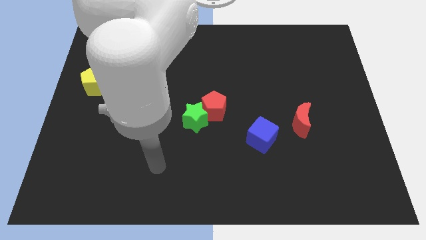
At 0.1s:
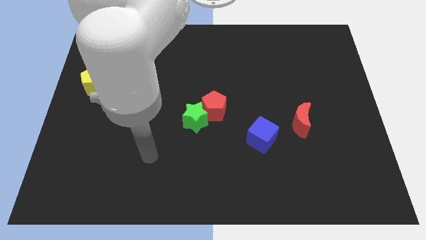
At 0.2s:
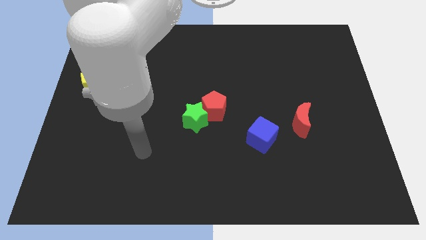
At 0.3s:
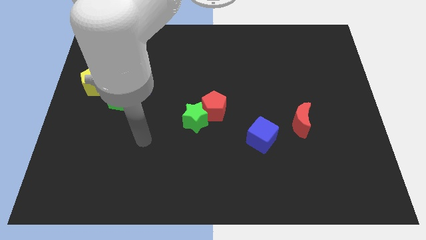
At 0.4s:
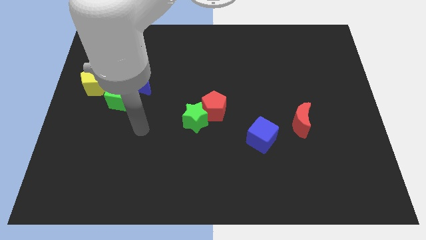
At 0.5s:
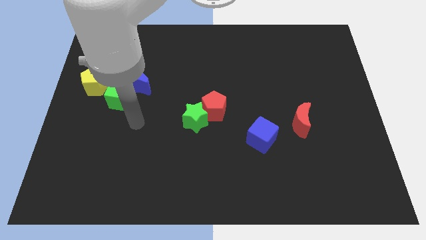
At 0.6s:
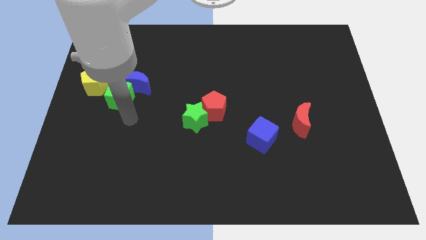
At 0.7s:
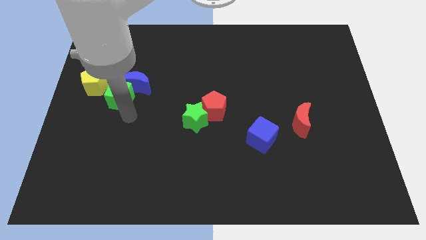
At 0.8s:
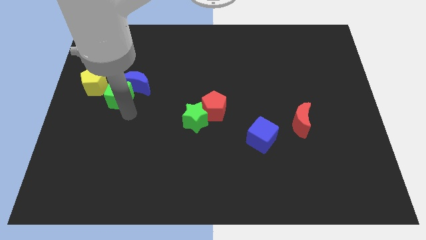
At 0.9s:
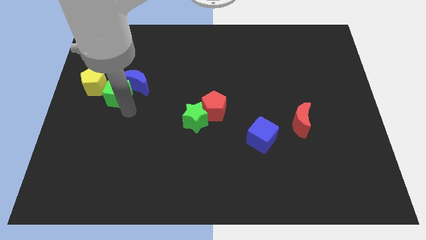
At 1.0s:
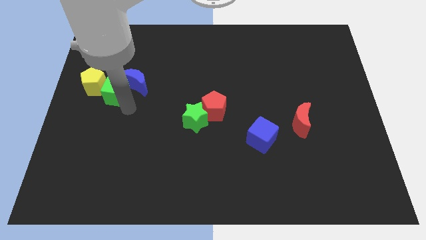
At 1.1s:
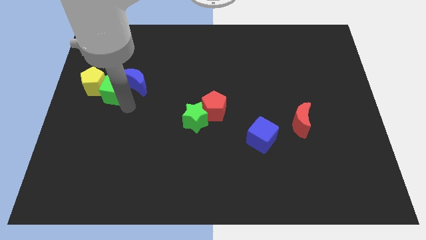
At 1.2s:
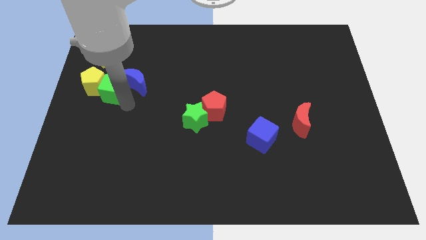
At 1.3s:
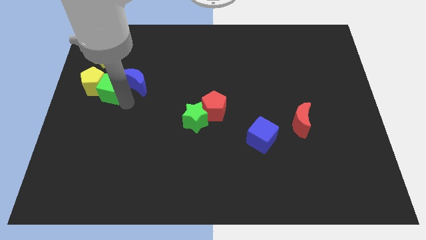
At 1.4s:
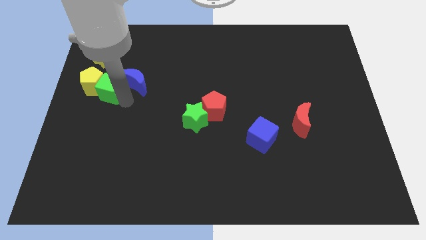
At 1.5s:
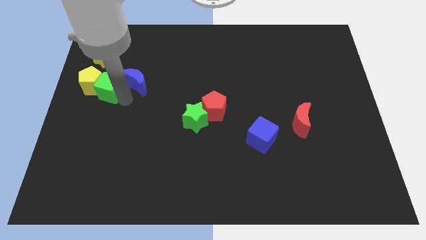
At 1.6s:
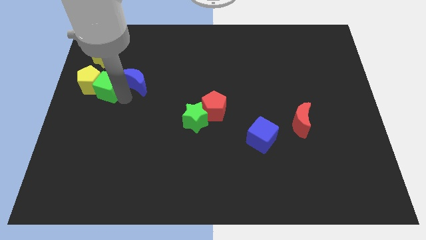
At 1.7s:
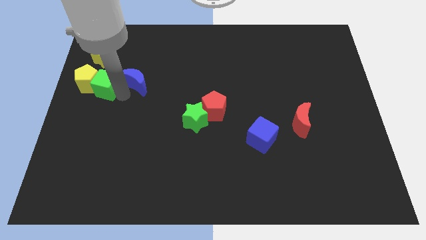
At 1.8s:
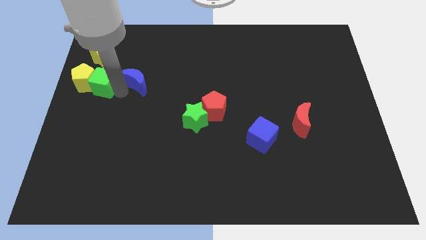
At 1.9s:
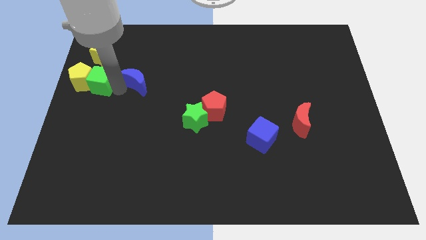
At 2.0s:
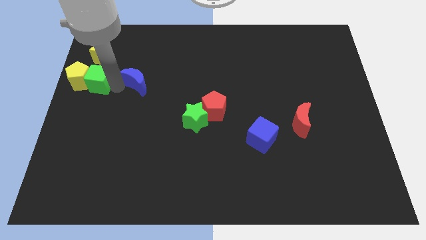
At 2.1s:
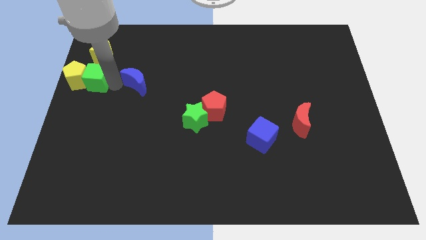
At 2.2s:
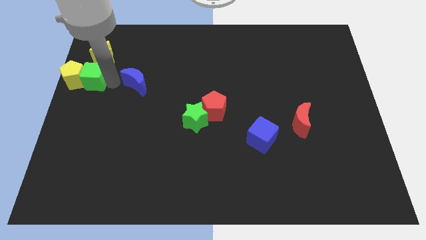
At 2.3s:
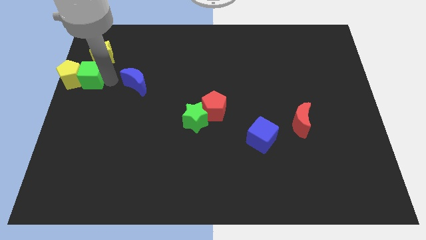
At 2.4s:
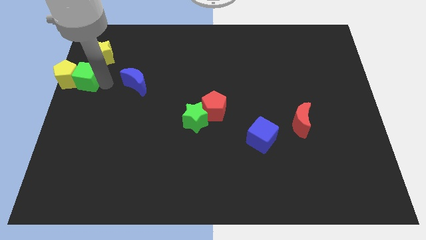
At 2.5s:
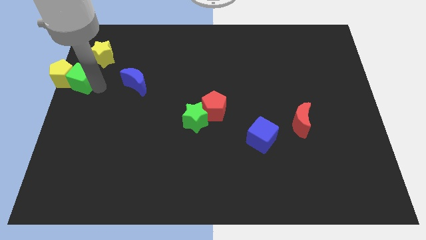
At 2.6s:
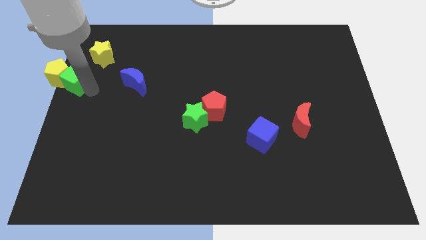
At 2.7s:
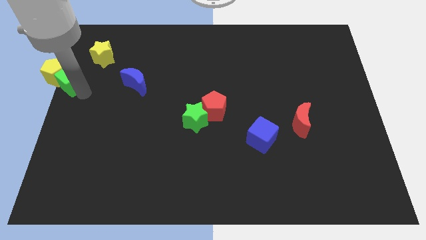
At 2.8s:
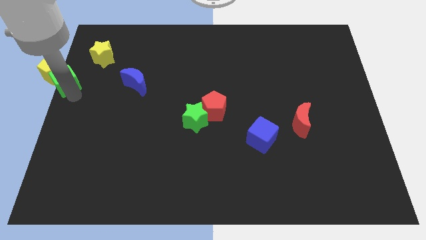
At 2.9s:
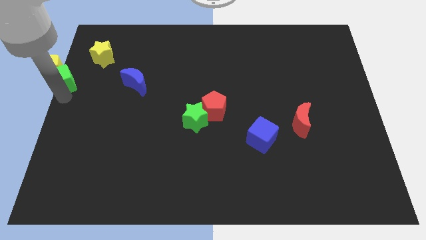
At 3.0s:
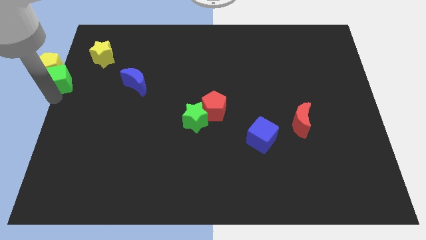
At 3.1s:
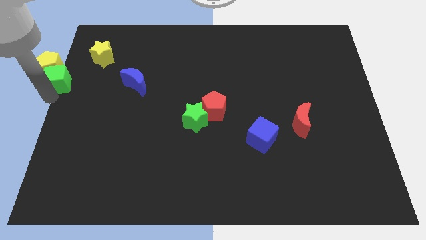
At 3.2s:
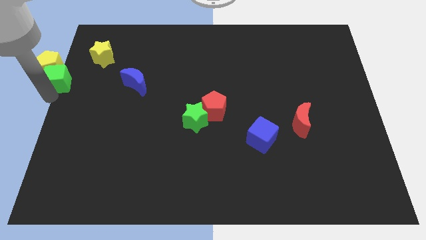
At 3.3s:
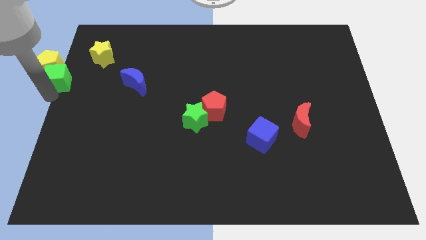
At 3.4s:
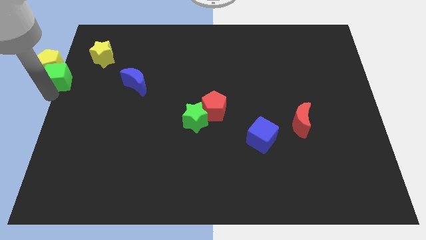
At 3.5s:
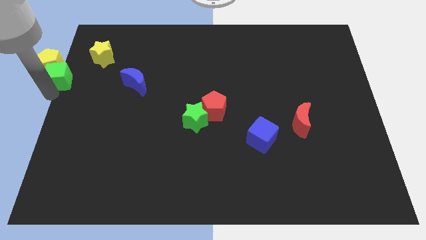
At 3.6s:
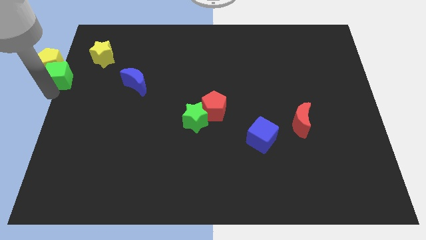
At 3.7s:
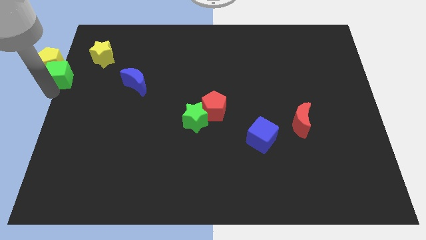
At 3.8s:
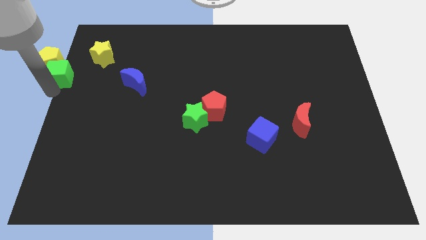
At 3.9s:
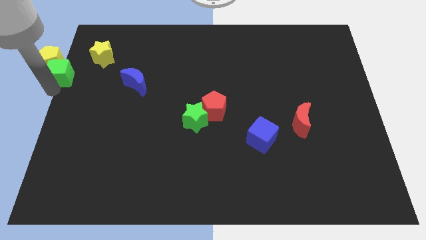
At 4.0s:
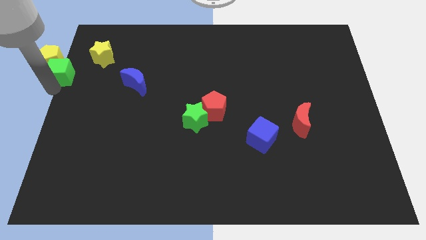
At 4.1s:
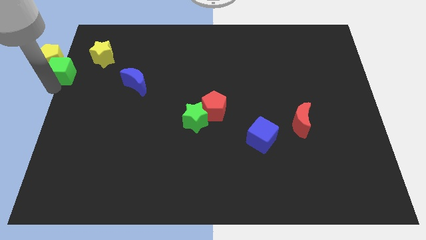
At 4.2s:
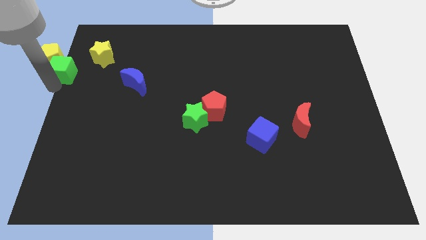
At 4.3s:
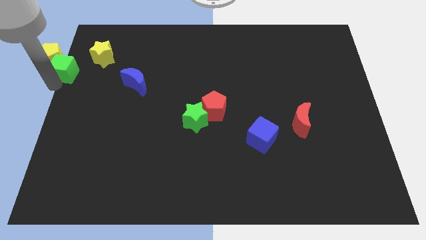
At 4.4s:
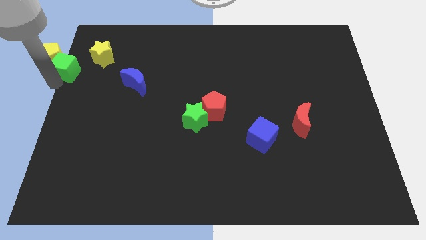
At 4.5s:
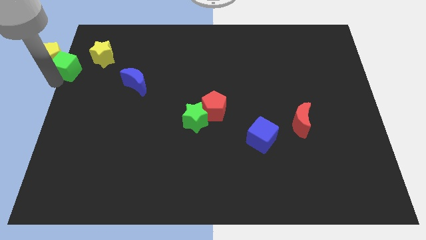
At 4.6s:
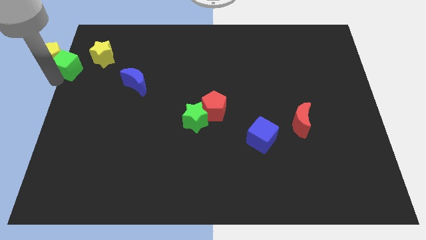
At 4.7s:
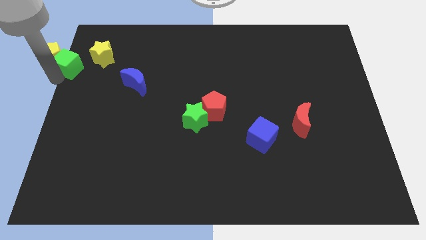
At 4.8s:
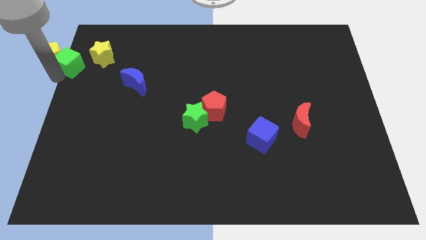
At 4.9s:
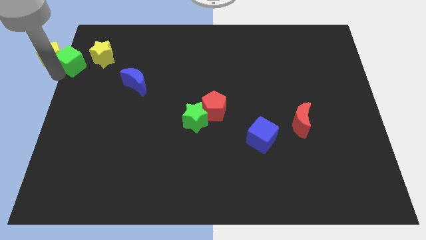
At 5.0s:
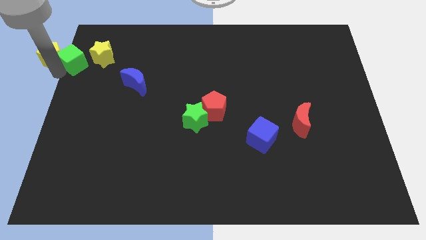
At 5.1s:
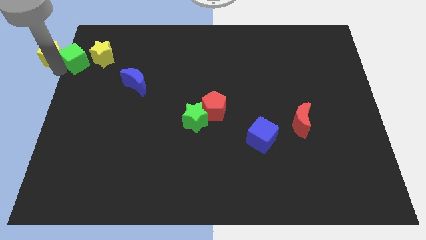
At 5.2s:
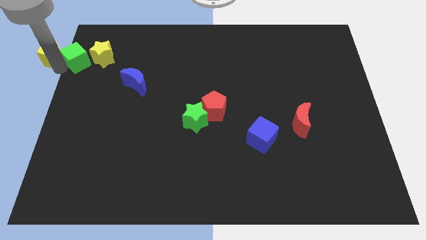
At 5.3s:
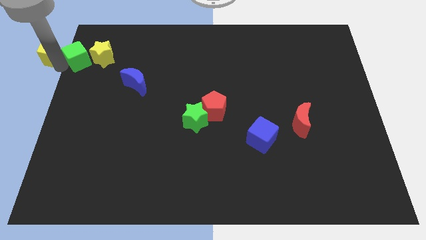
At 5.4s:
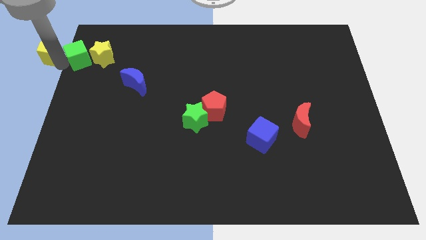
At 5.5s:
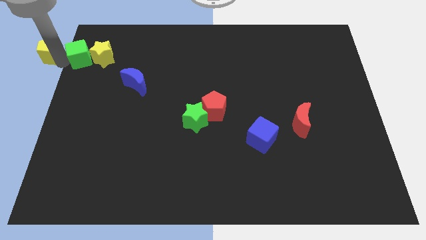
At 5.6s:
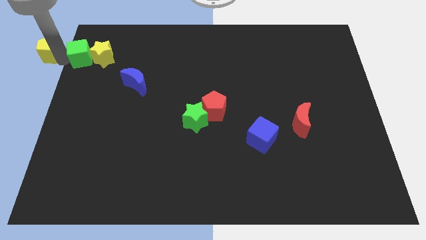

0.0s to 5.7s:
slide the green cube towards the yellow star

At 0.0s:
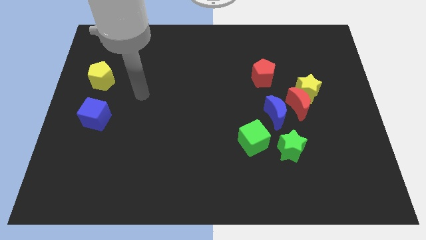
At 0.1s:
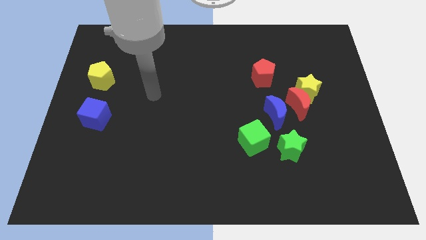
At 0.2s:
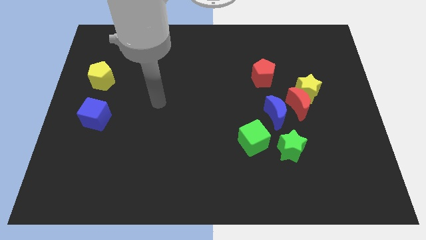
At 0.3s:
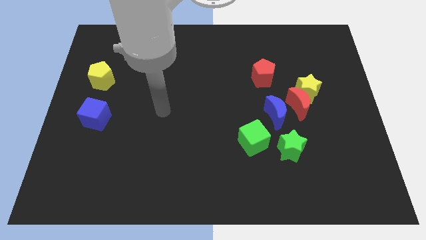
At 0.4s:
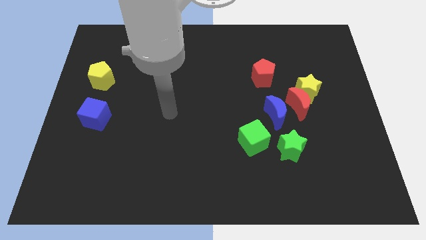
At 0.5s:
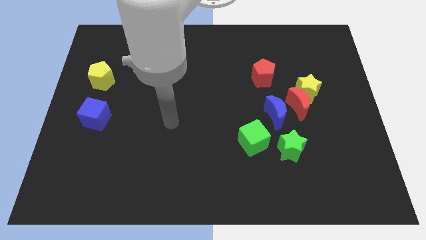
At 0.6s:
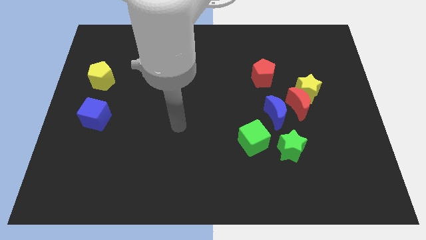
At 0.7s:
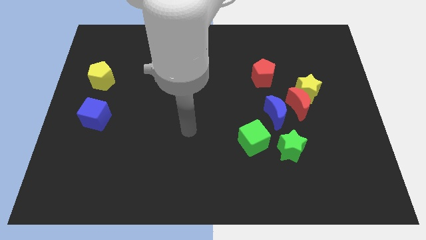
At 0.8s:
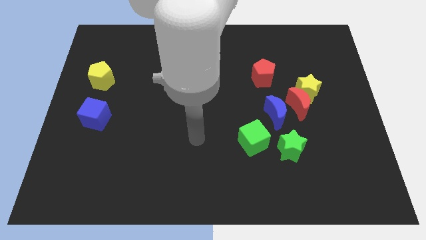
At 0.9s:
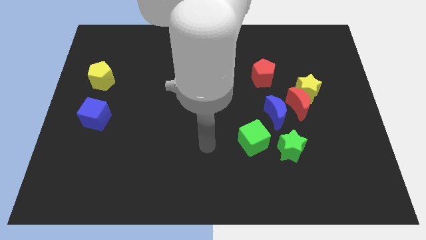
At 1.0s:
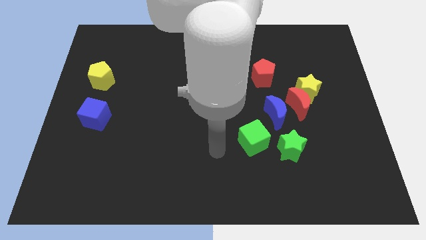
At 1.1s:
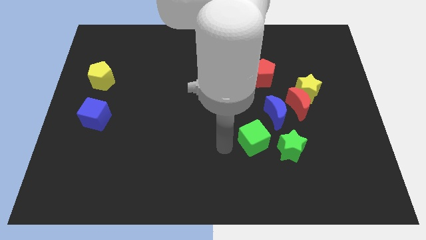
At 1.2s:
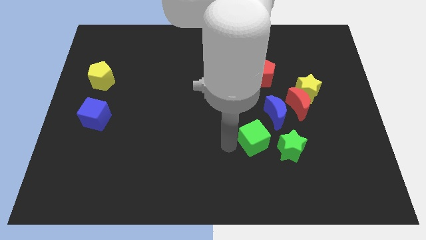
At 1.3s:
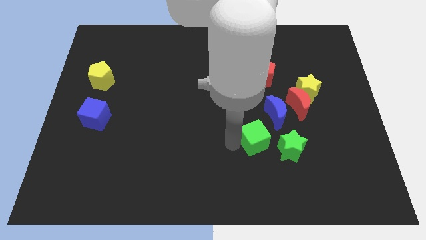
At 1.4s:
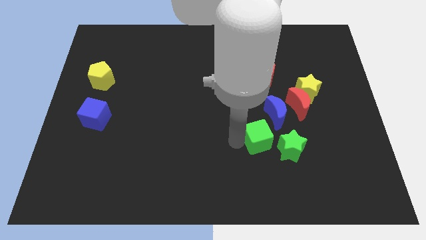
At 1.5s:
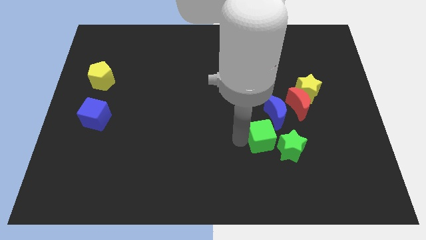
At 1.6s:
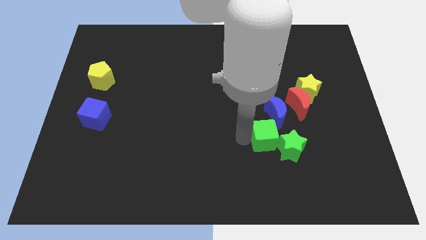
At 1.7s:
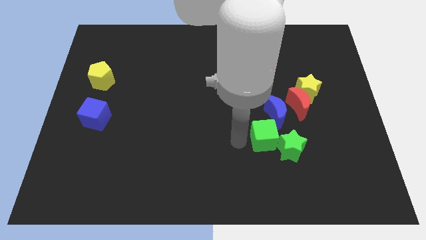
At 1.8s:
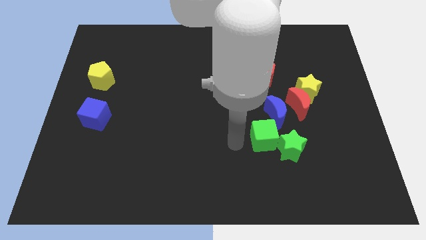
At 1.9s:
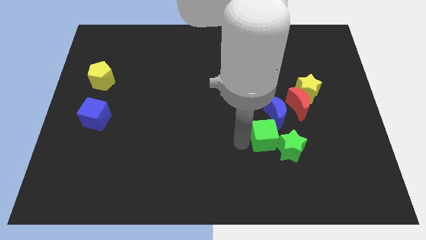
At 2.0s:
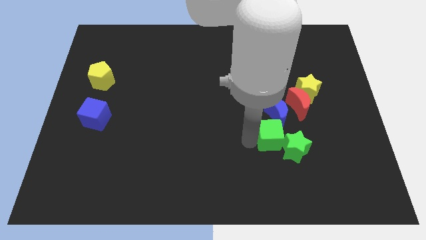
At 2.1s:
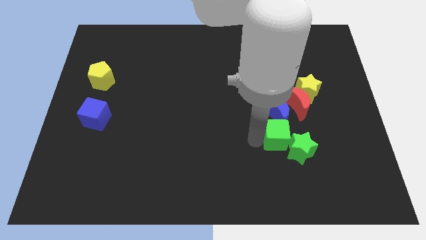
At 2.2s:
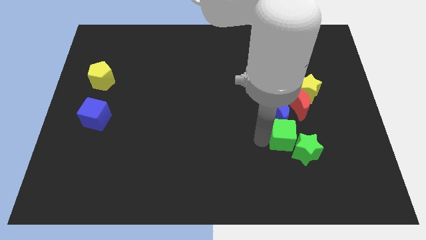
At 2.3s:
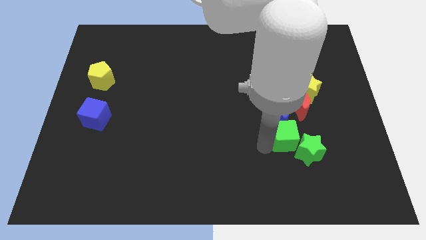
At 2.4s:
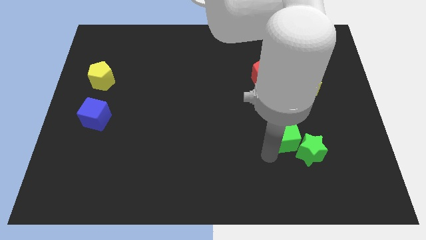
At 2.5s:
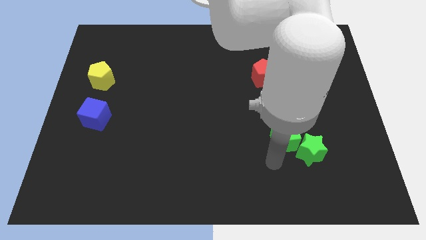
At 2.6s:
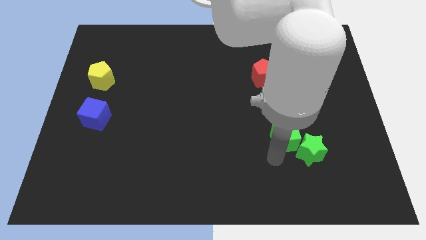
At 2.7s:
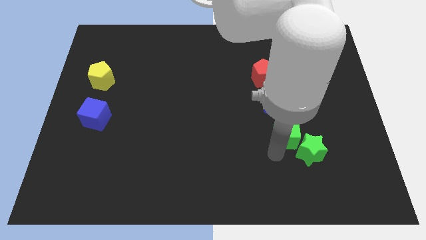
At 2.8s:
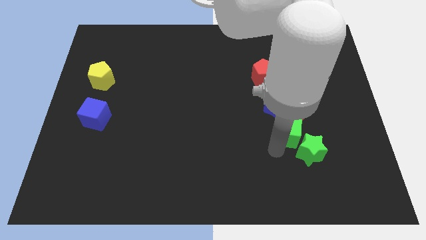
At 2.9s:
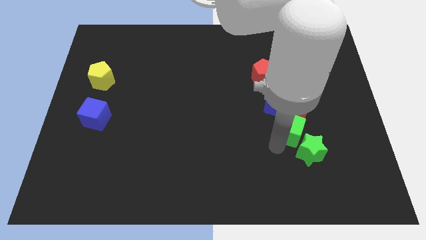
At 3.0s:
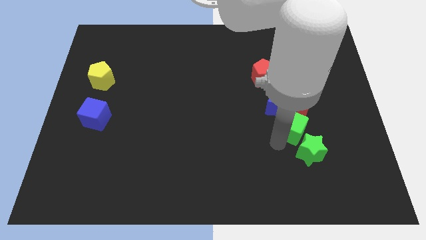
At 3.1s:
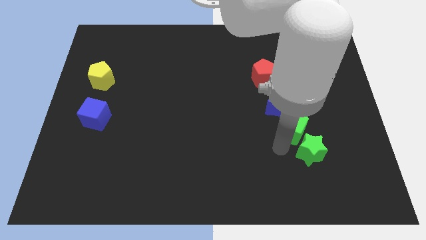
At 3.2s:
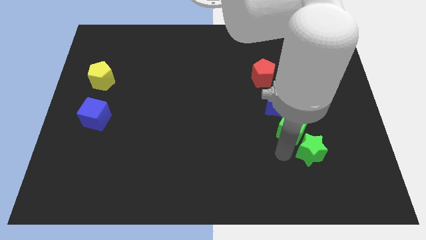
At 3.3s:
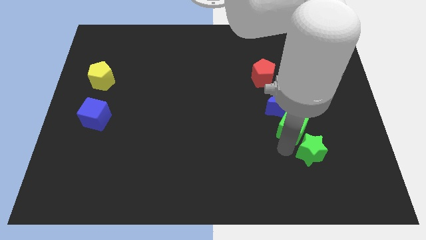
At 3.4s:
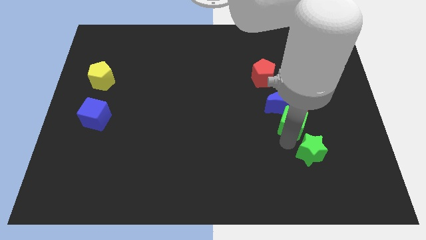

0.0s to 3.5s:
push the green cube towards the red moon
